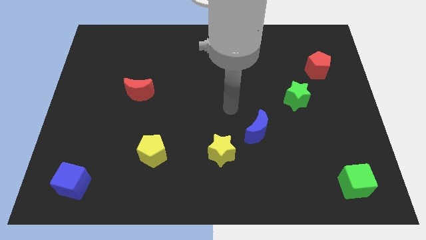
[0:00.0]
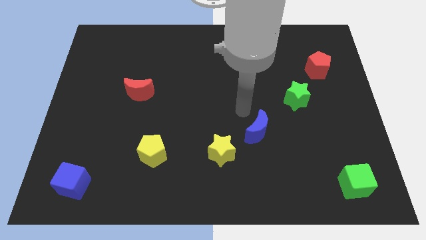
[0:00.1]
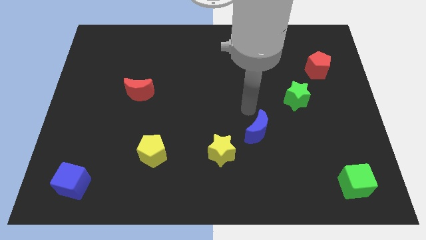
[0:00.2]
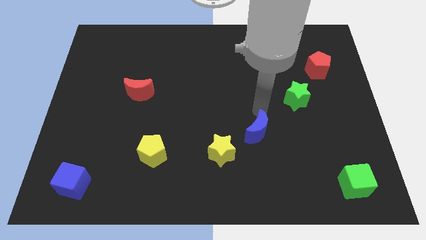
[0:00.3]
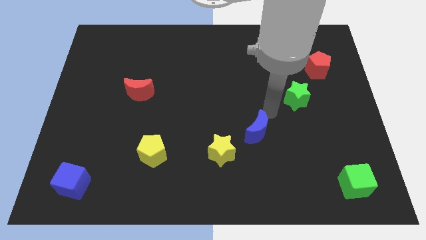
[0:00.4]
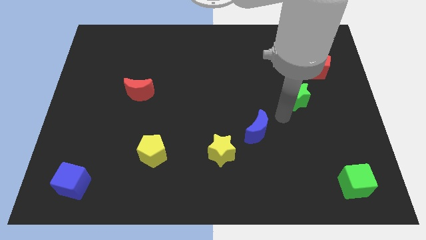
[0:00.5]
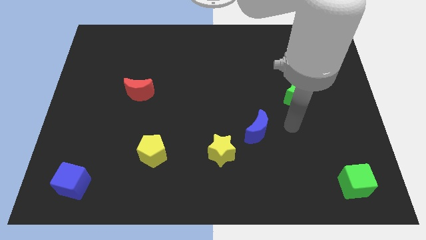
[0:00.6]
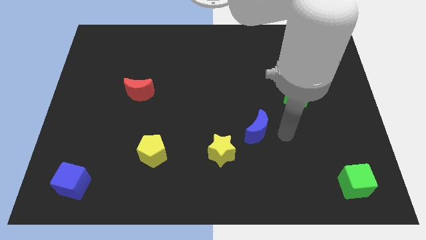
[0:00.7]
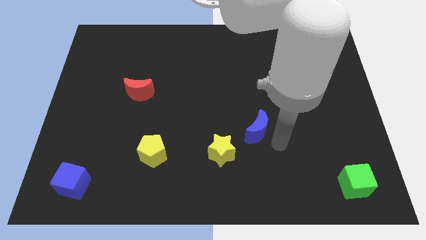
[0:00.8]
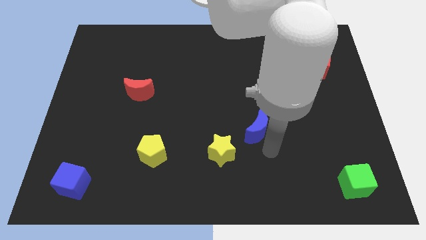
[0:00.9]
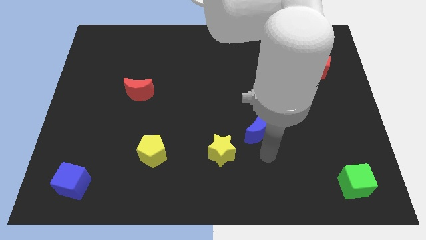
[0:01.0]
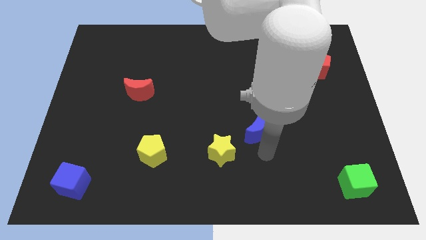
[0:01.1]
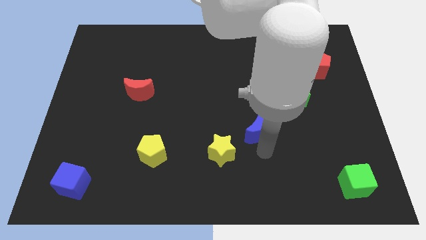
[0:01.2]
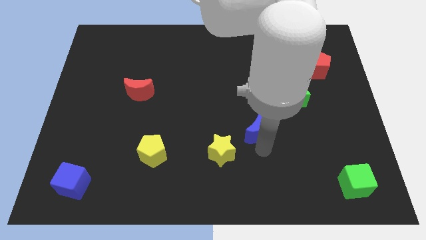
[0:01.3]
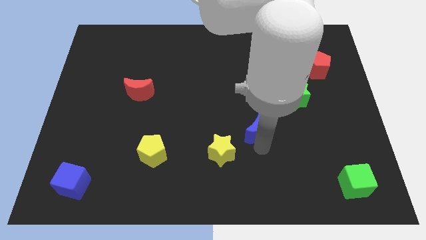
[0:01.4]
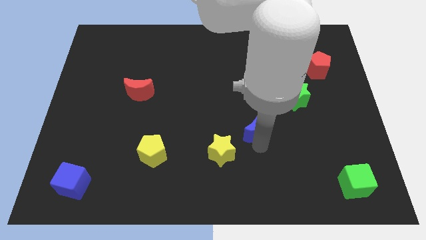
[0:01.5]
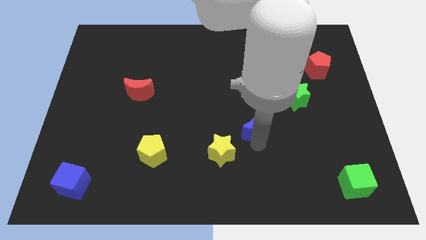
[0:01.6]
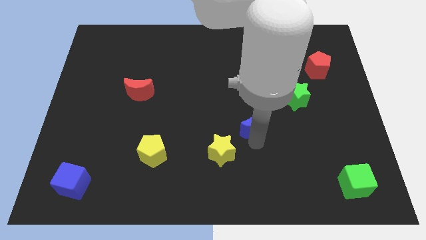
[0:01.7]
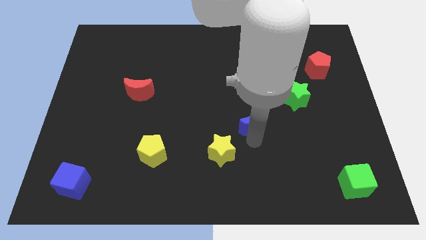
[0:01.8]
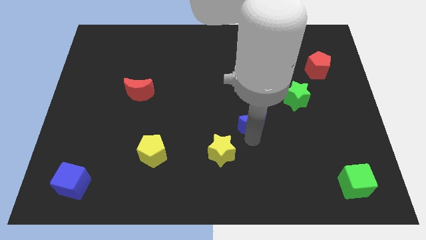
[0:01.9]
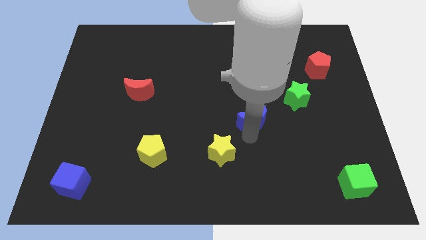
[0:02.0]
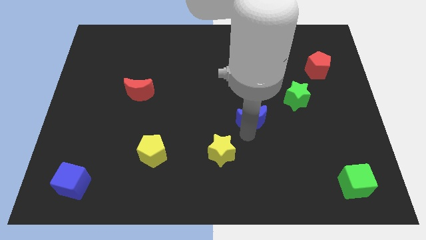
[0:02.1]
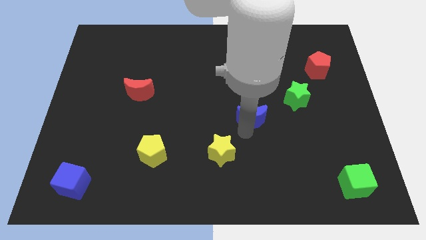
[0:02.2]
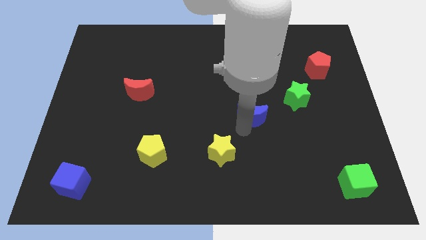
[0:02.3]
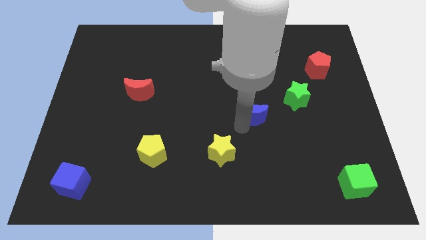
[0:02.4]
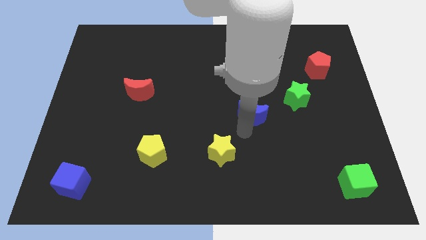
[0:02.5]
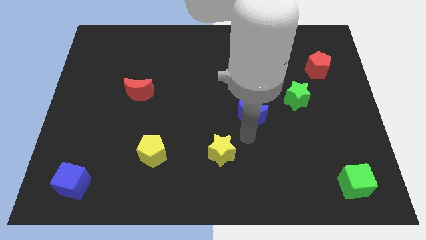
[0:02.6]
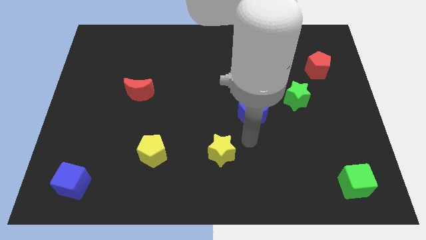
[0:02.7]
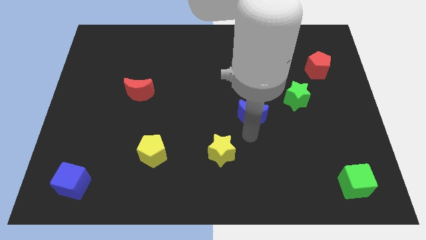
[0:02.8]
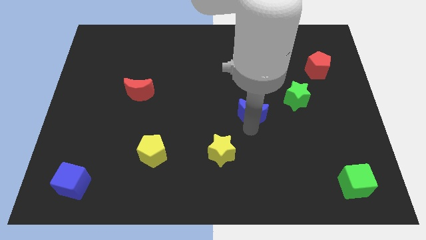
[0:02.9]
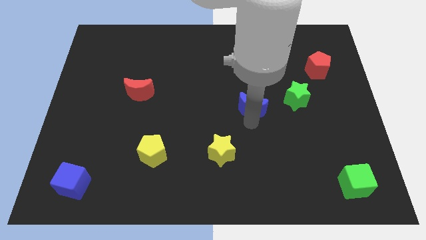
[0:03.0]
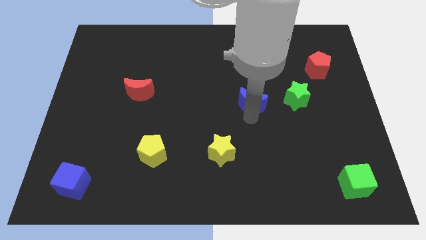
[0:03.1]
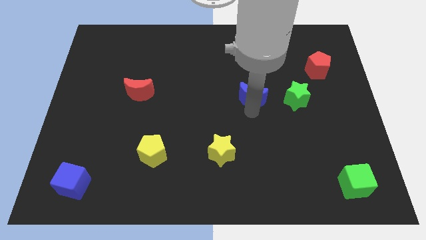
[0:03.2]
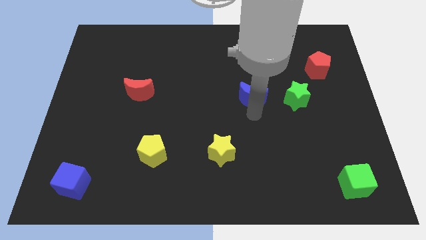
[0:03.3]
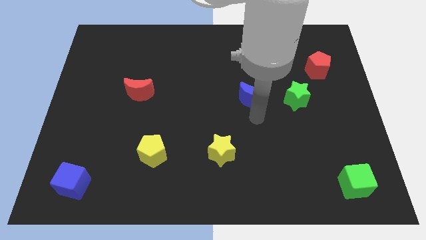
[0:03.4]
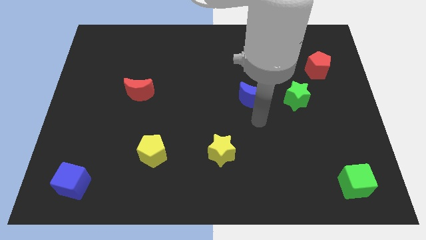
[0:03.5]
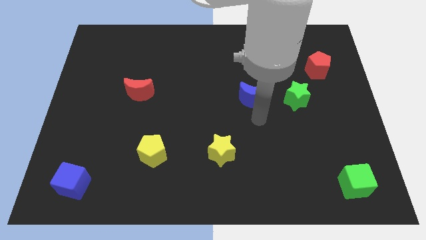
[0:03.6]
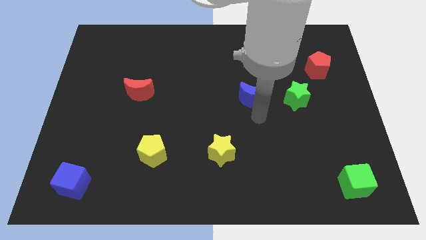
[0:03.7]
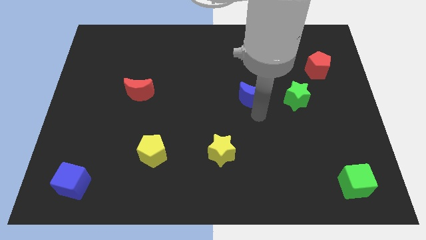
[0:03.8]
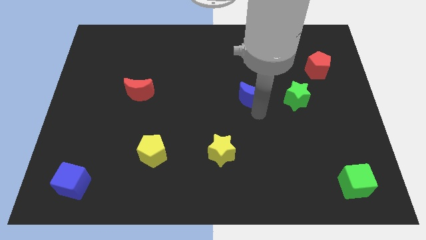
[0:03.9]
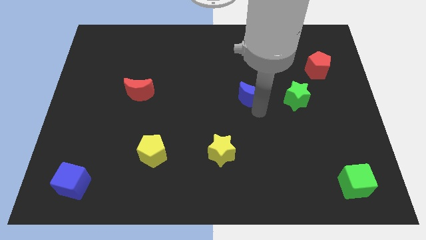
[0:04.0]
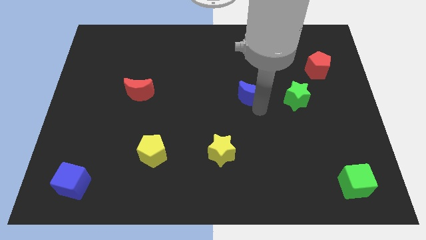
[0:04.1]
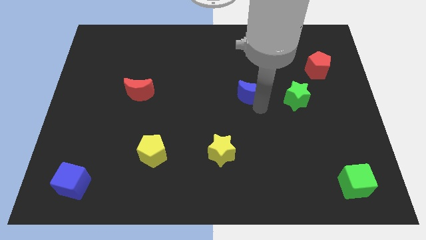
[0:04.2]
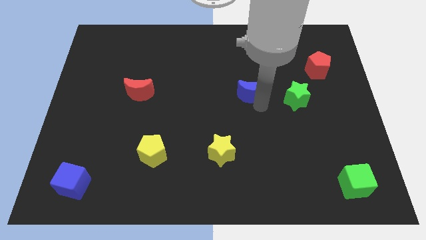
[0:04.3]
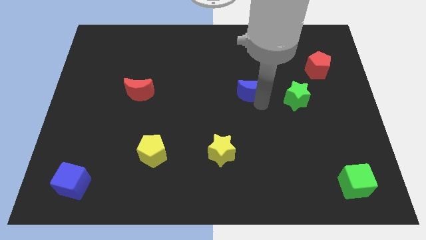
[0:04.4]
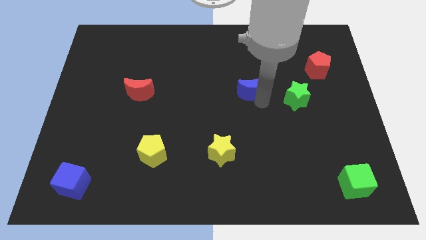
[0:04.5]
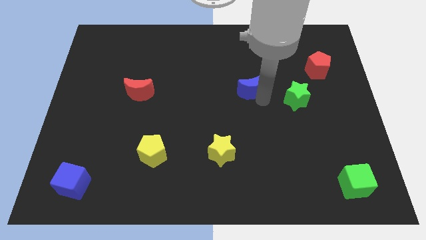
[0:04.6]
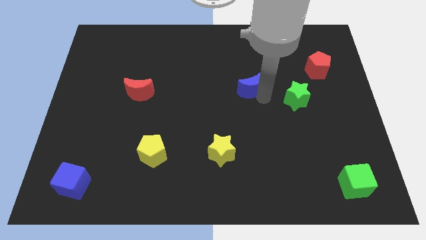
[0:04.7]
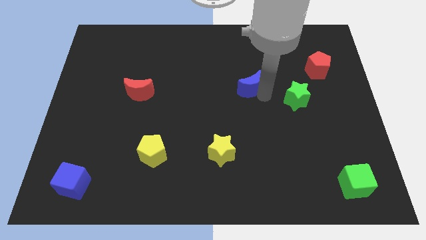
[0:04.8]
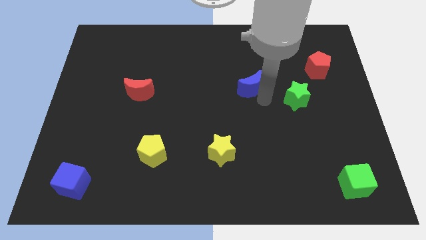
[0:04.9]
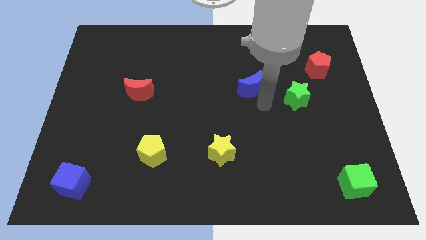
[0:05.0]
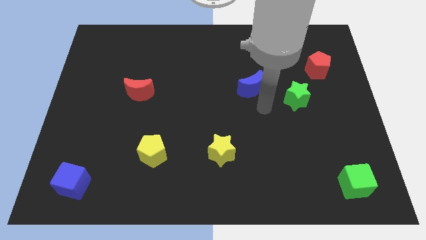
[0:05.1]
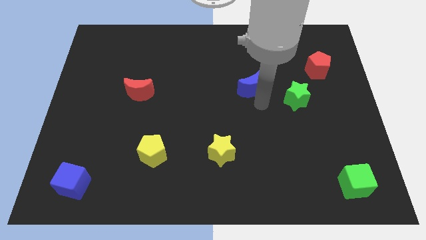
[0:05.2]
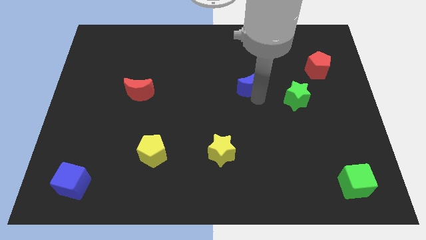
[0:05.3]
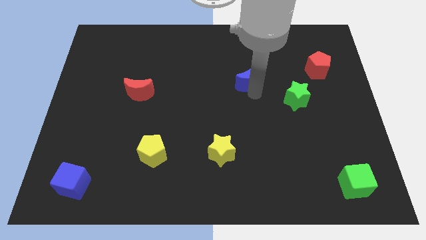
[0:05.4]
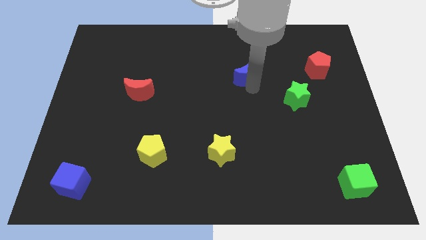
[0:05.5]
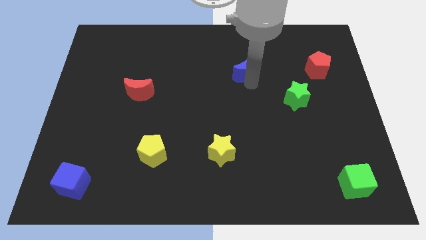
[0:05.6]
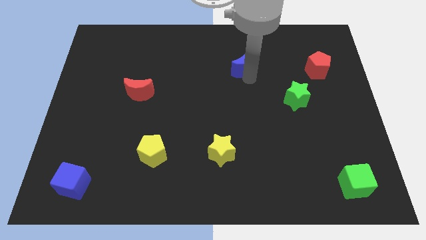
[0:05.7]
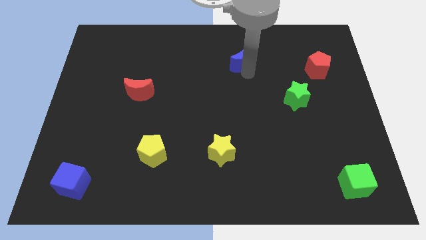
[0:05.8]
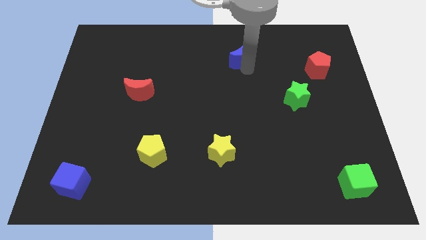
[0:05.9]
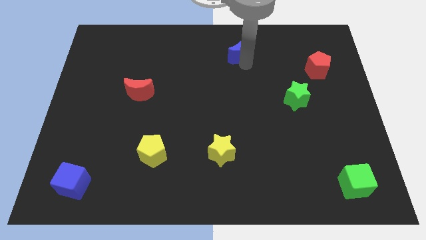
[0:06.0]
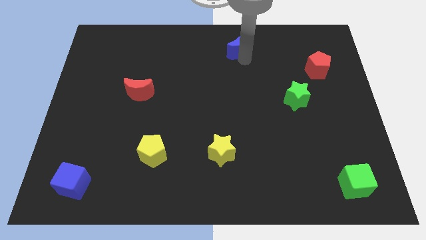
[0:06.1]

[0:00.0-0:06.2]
push the blue moon to the top side

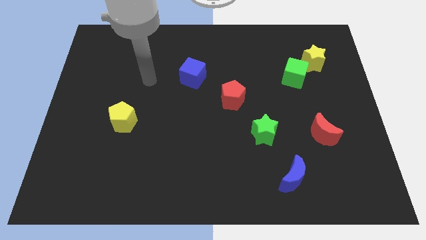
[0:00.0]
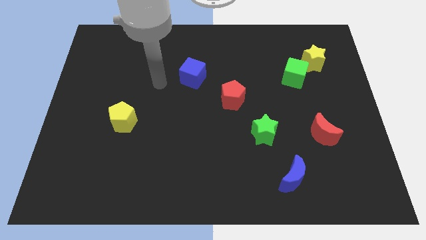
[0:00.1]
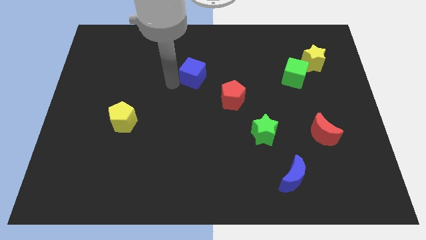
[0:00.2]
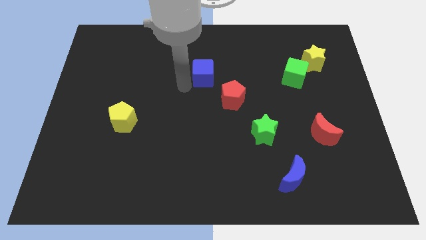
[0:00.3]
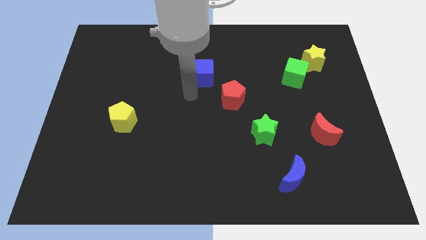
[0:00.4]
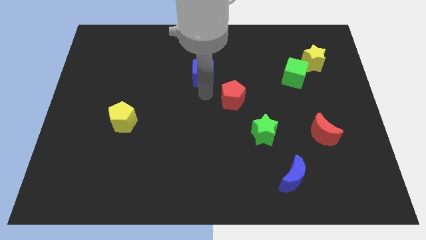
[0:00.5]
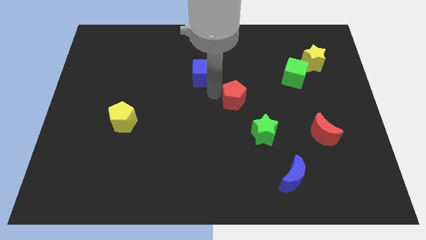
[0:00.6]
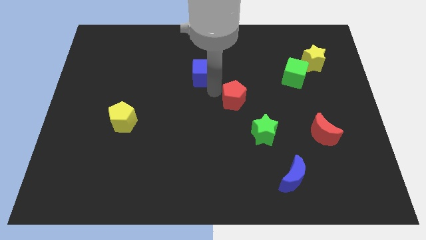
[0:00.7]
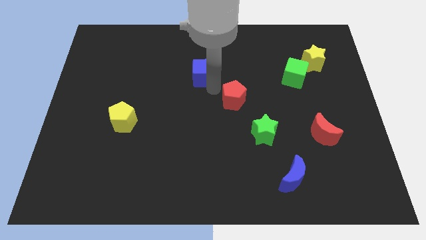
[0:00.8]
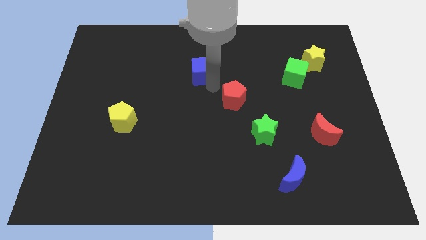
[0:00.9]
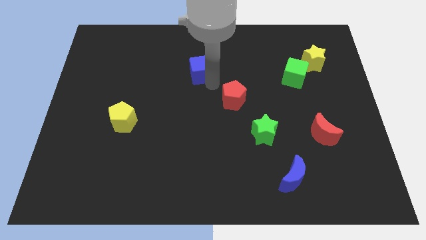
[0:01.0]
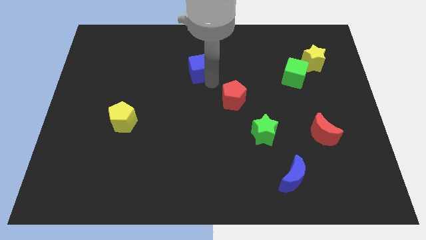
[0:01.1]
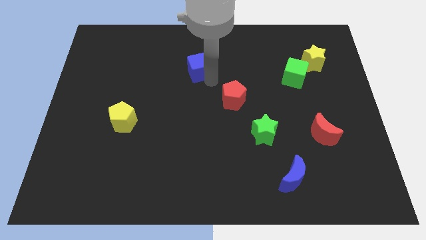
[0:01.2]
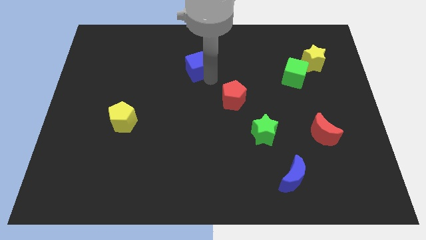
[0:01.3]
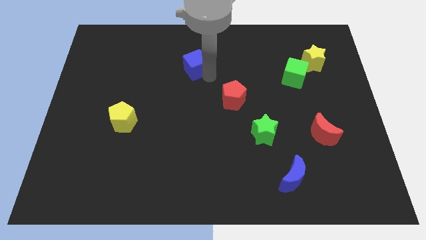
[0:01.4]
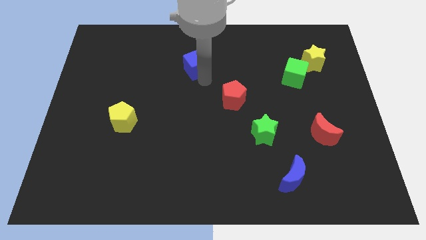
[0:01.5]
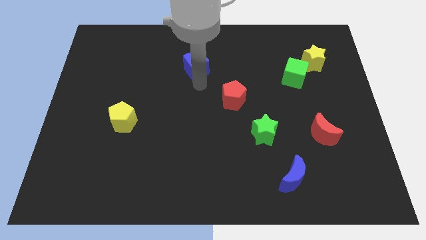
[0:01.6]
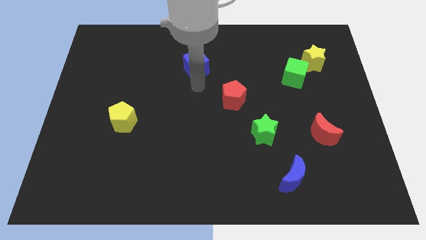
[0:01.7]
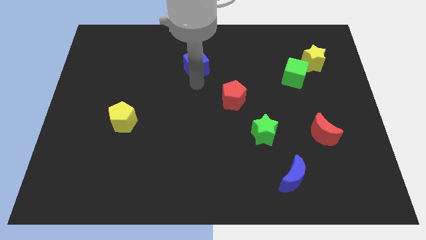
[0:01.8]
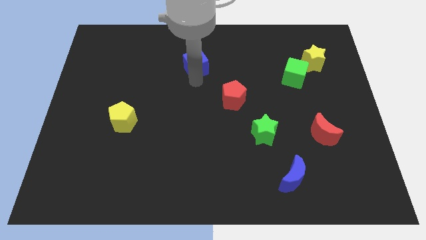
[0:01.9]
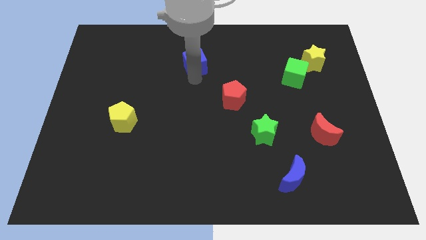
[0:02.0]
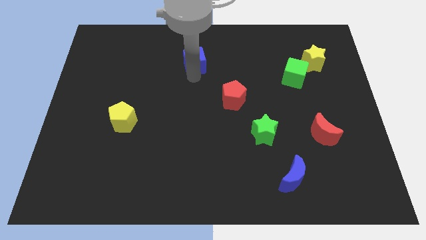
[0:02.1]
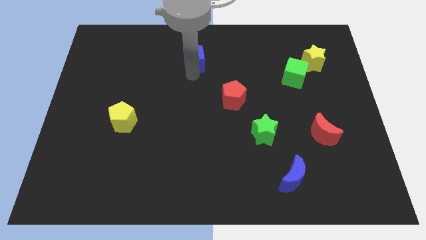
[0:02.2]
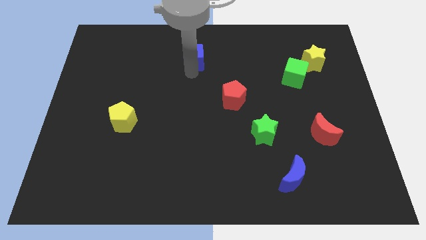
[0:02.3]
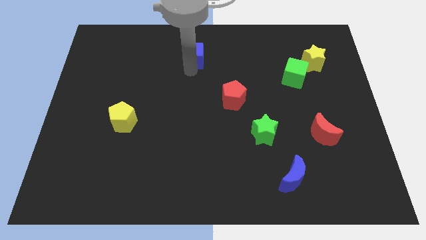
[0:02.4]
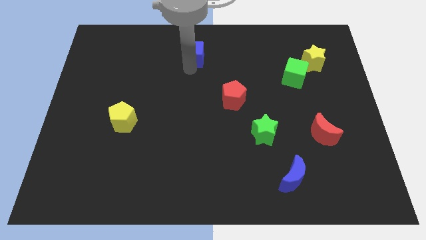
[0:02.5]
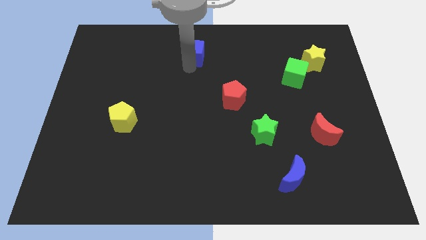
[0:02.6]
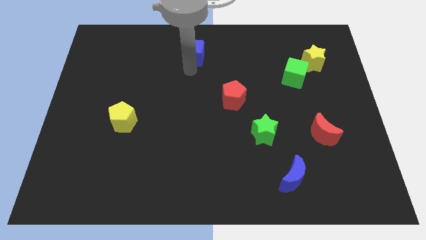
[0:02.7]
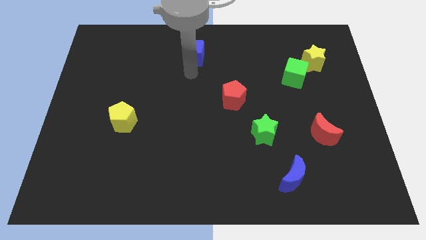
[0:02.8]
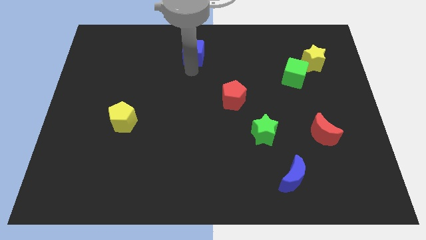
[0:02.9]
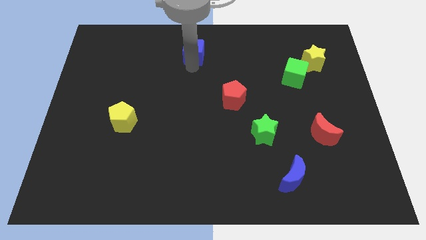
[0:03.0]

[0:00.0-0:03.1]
put the blue cube to the towards your base
